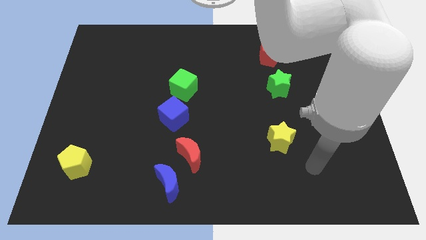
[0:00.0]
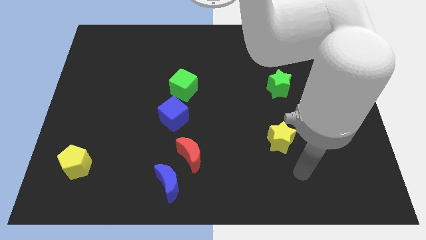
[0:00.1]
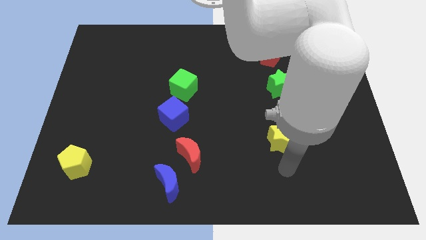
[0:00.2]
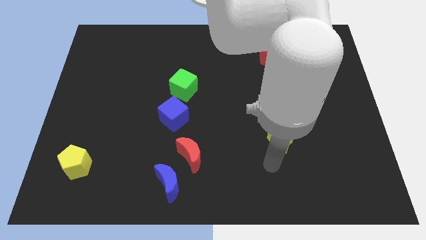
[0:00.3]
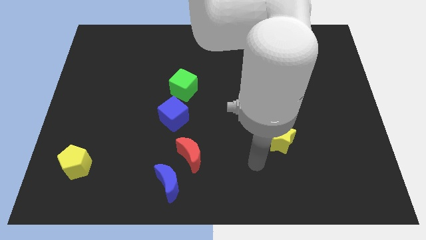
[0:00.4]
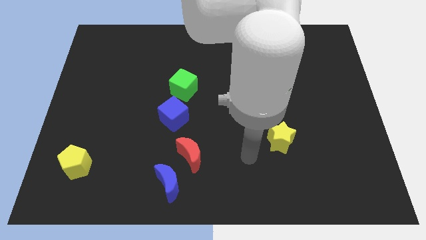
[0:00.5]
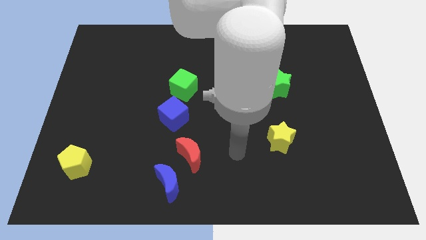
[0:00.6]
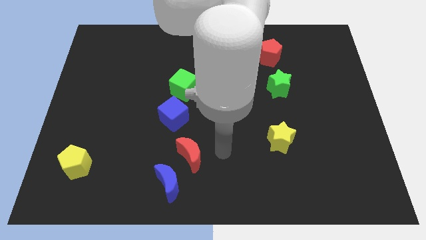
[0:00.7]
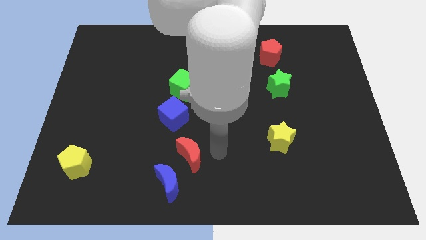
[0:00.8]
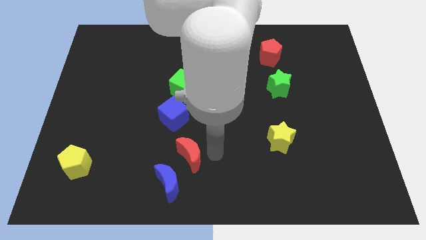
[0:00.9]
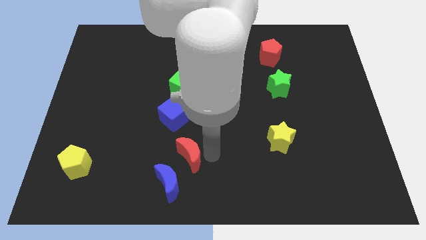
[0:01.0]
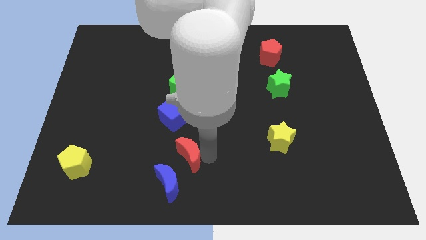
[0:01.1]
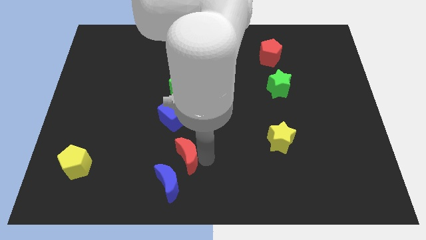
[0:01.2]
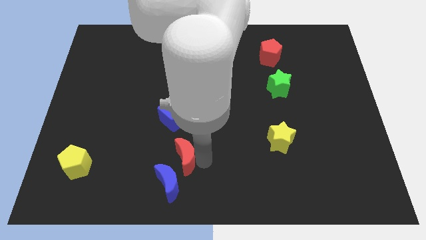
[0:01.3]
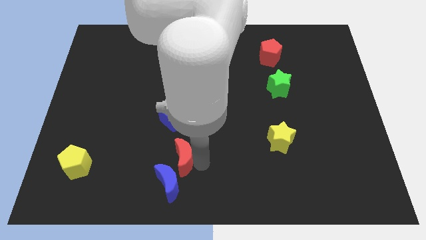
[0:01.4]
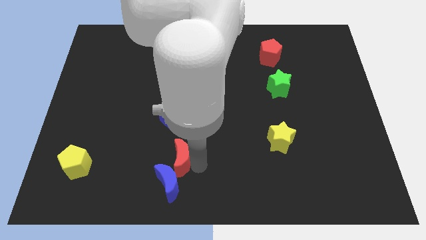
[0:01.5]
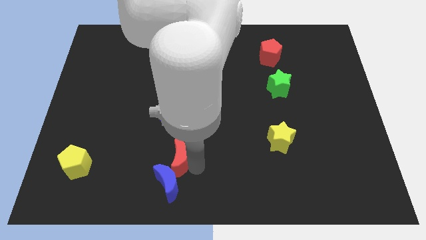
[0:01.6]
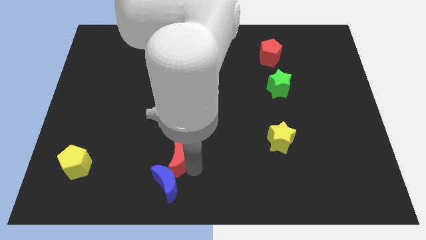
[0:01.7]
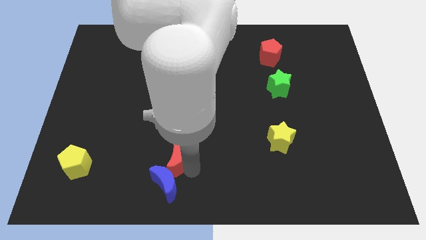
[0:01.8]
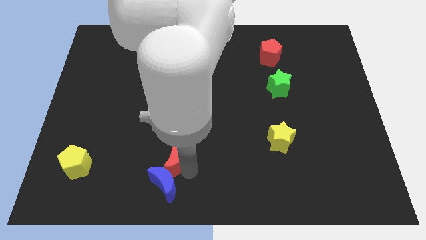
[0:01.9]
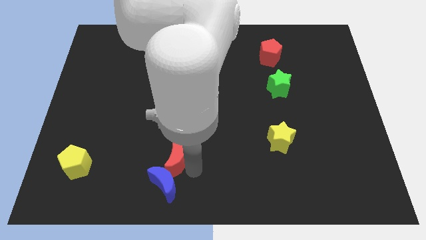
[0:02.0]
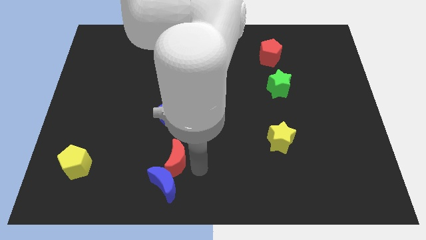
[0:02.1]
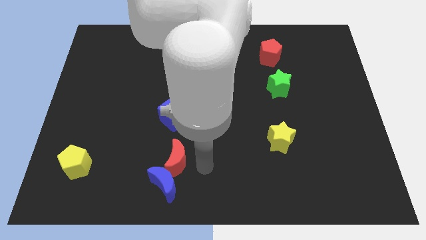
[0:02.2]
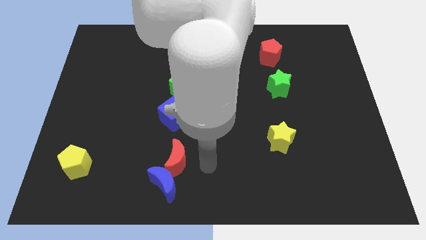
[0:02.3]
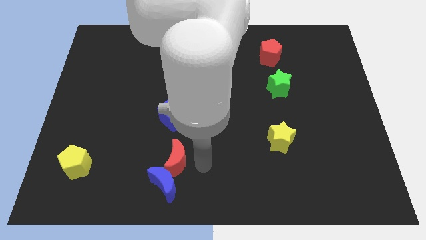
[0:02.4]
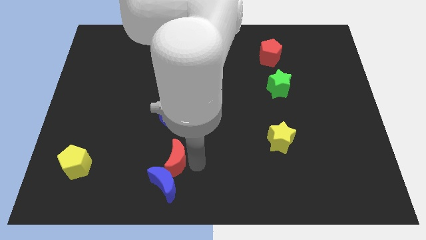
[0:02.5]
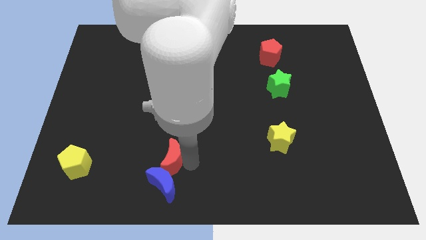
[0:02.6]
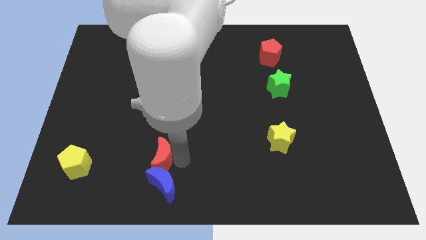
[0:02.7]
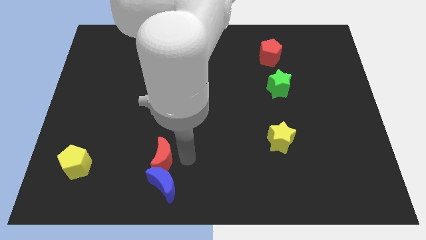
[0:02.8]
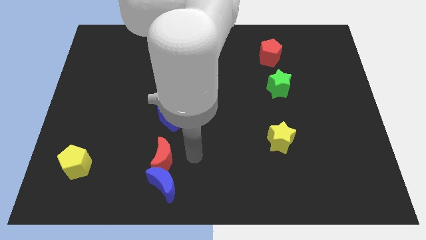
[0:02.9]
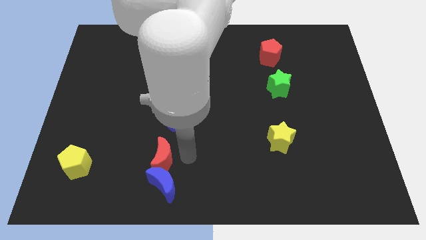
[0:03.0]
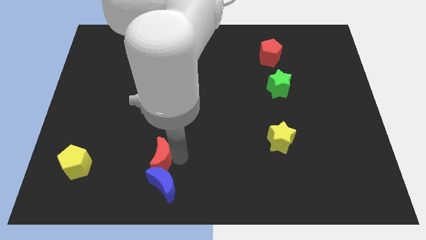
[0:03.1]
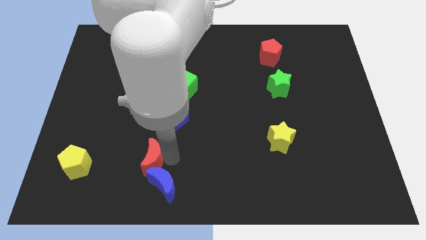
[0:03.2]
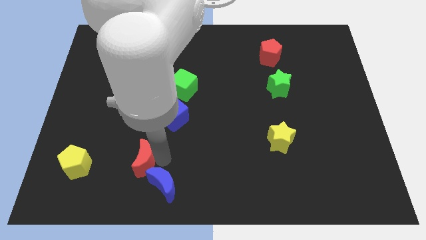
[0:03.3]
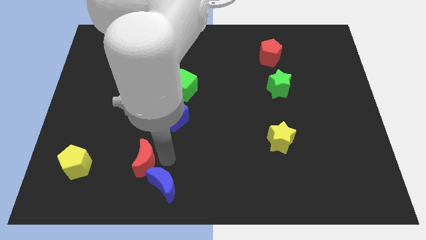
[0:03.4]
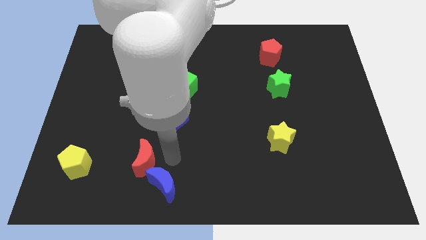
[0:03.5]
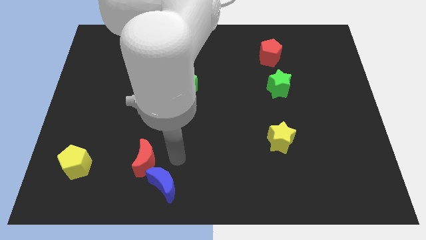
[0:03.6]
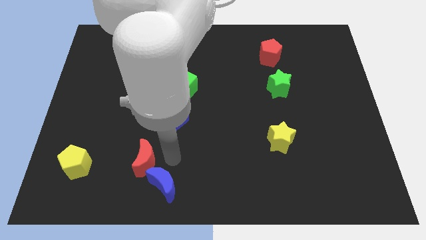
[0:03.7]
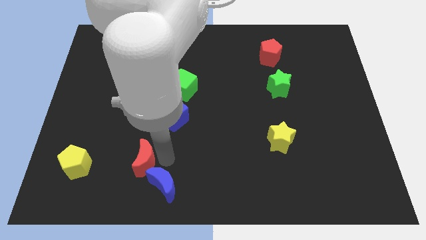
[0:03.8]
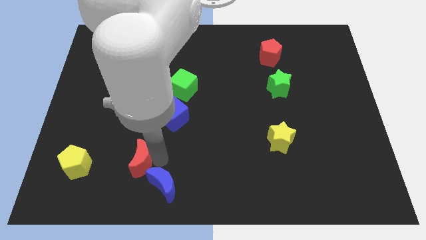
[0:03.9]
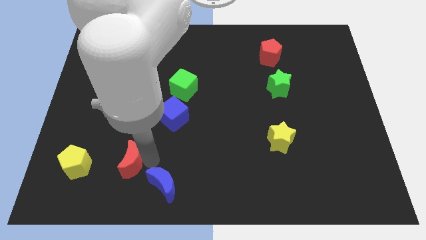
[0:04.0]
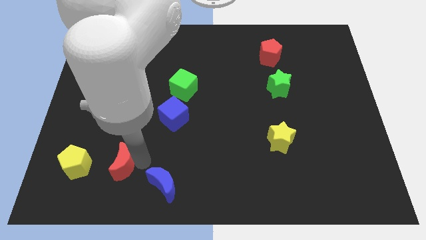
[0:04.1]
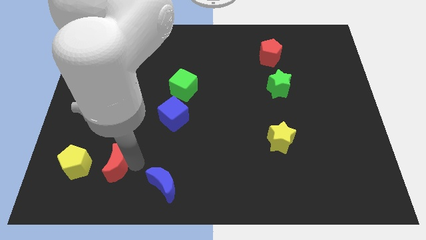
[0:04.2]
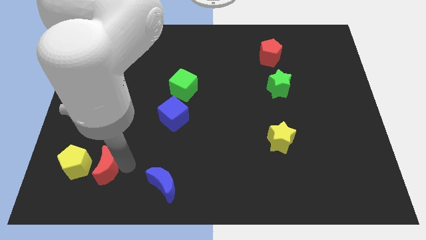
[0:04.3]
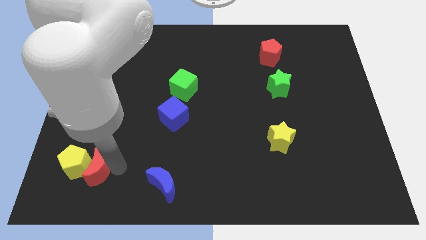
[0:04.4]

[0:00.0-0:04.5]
put the red moon close to the yellow pentagon

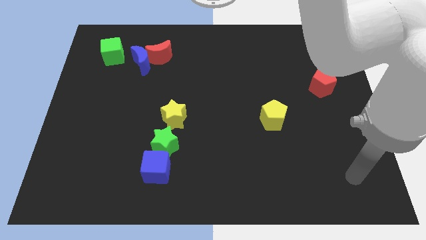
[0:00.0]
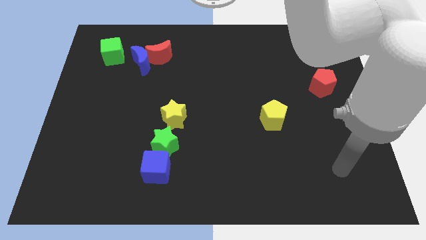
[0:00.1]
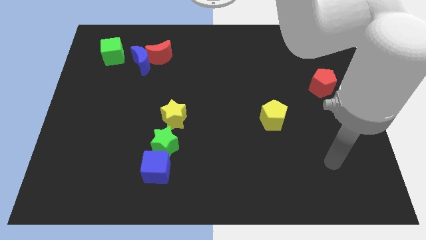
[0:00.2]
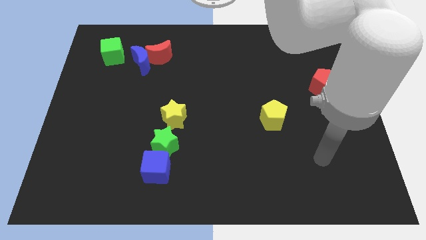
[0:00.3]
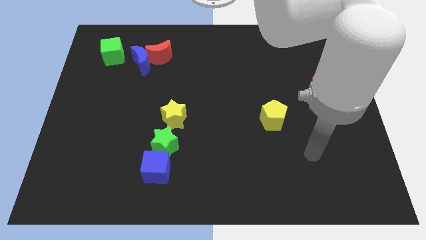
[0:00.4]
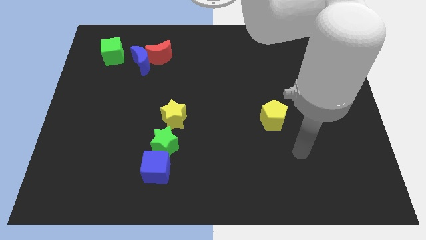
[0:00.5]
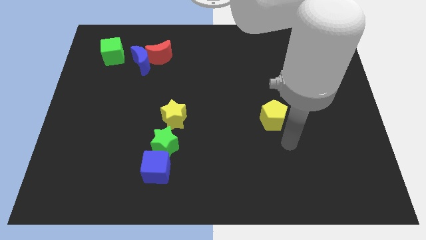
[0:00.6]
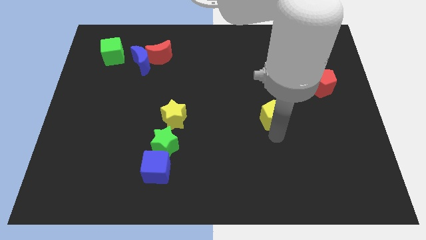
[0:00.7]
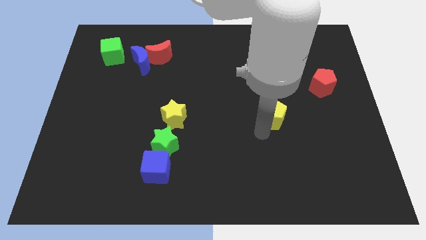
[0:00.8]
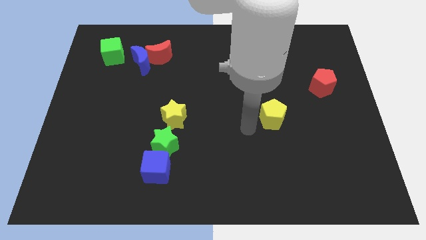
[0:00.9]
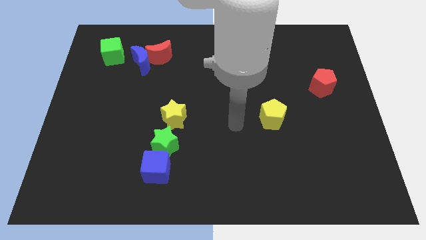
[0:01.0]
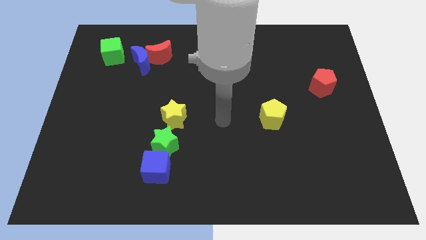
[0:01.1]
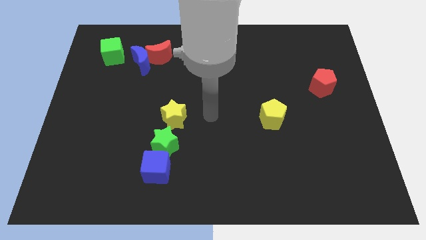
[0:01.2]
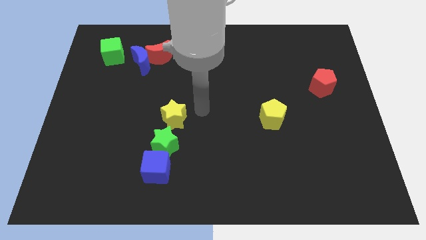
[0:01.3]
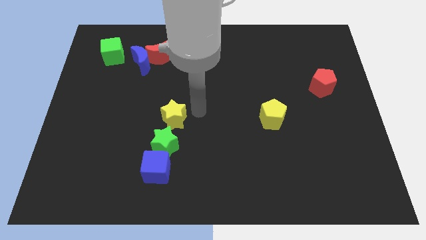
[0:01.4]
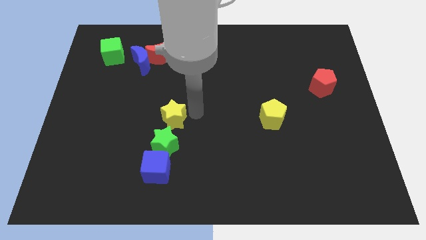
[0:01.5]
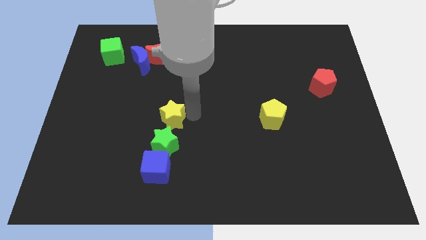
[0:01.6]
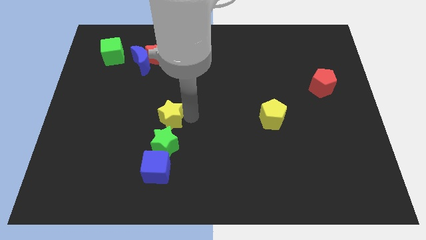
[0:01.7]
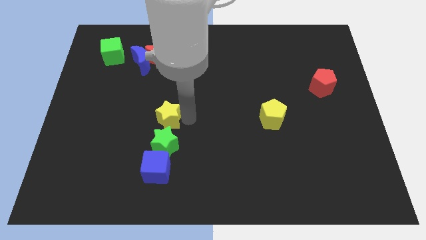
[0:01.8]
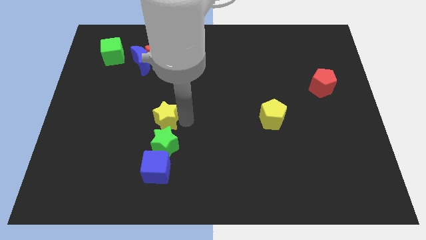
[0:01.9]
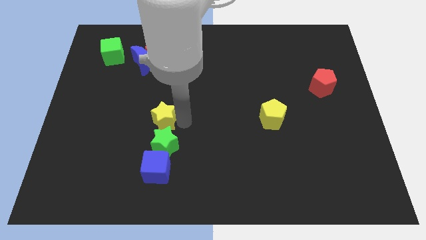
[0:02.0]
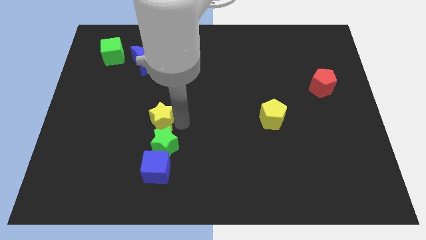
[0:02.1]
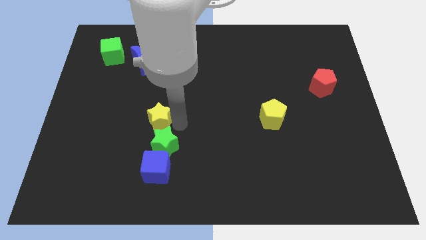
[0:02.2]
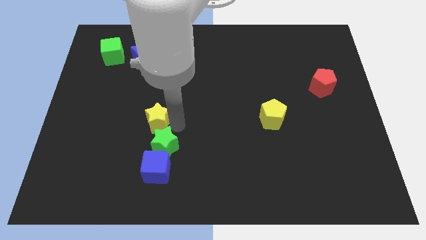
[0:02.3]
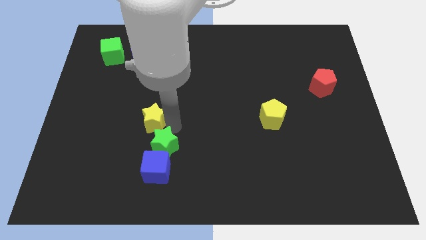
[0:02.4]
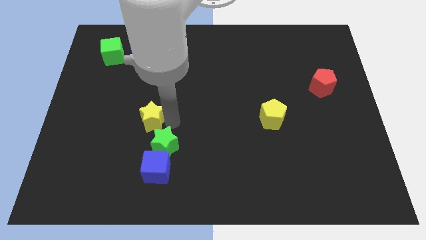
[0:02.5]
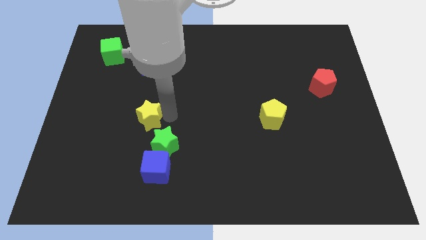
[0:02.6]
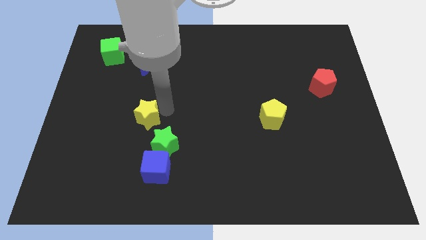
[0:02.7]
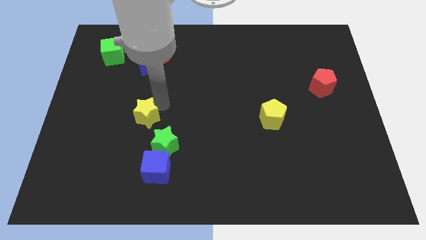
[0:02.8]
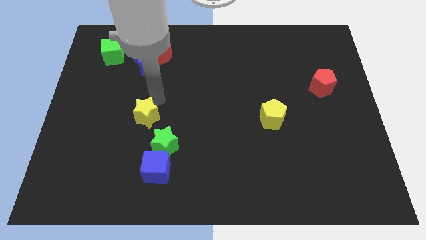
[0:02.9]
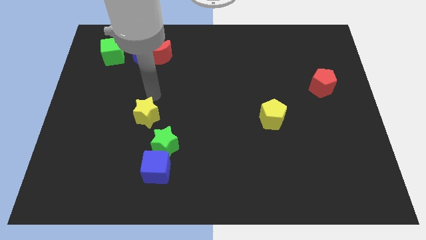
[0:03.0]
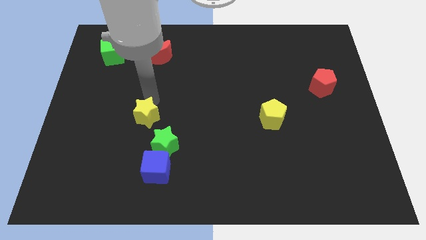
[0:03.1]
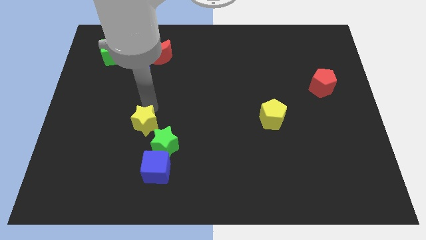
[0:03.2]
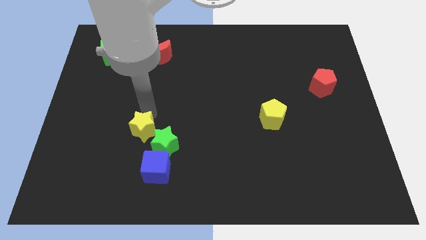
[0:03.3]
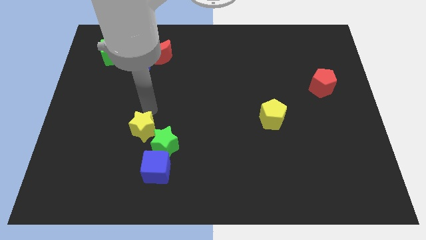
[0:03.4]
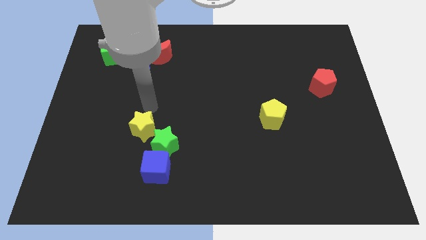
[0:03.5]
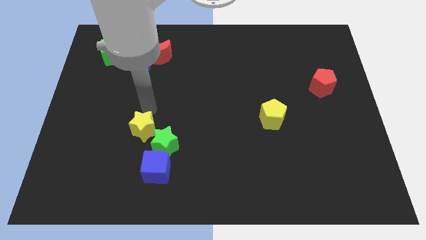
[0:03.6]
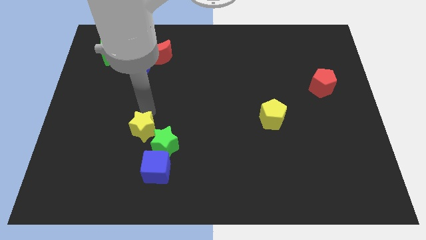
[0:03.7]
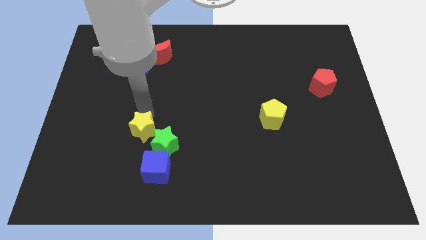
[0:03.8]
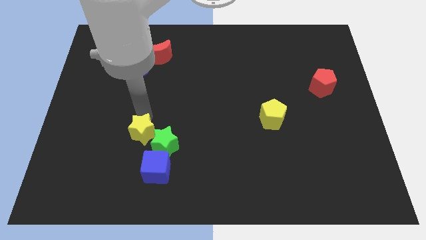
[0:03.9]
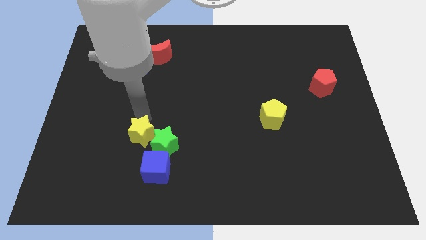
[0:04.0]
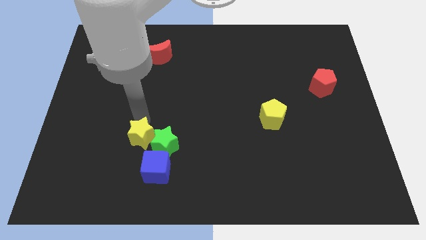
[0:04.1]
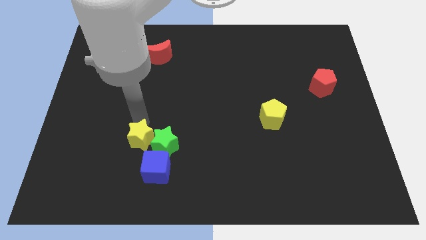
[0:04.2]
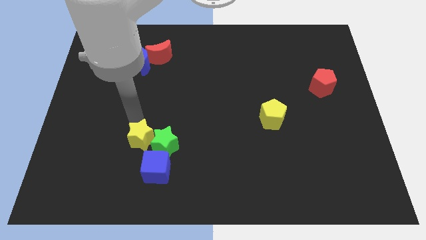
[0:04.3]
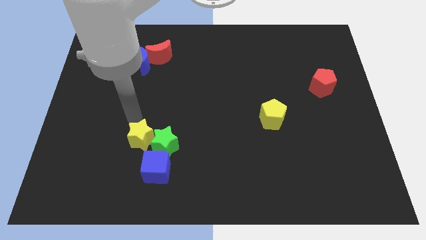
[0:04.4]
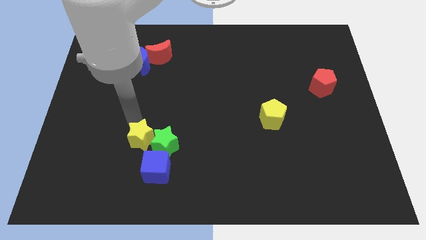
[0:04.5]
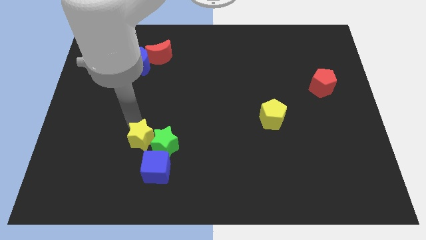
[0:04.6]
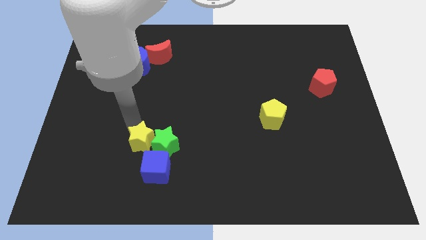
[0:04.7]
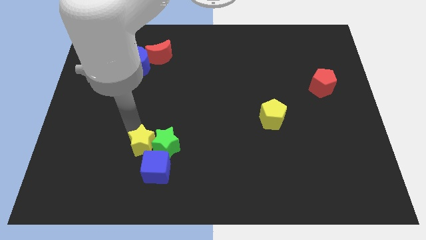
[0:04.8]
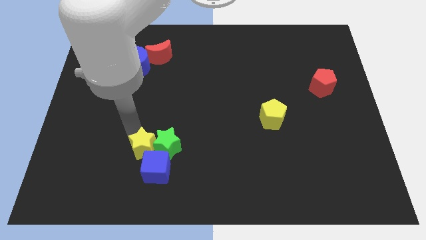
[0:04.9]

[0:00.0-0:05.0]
slide the yellow star next to the blue cube
